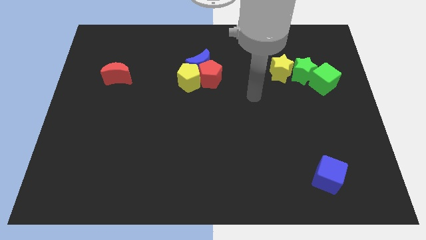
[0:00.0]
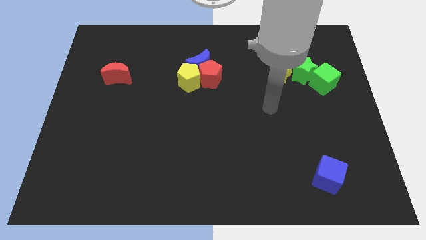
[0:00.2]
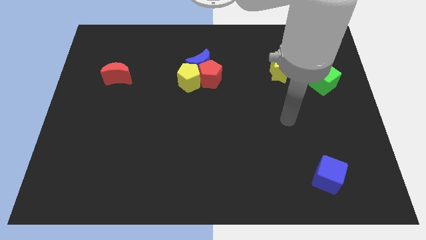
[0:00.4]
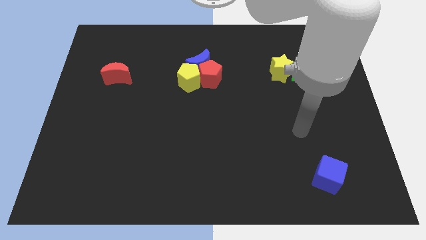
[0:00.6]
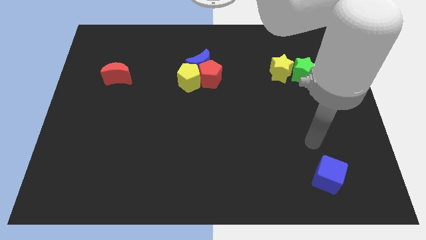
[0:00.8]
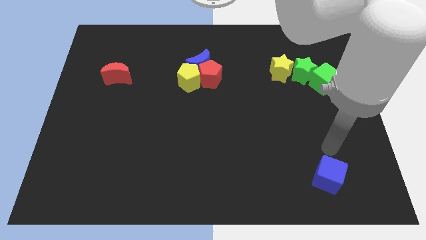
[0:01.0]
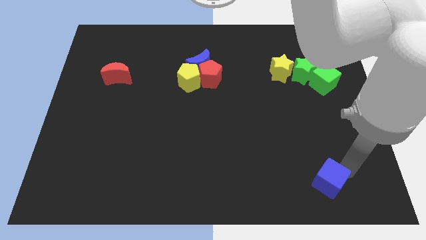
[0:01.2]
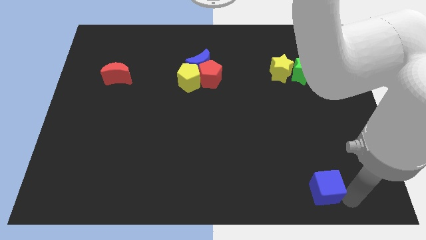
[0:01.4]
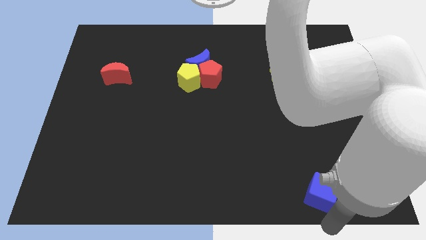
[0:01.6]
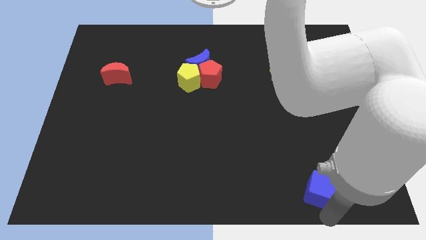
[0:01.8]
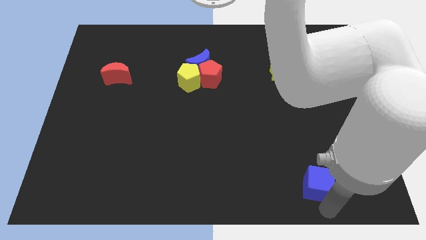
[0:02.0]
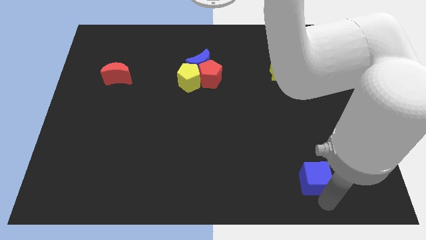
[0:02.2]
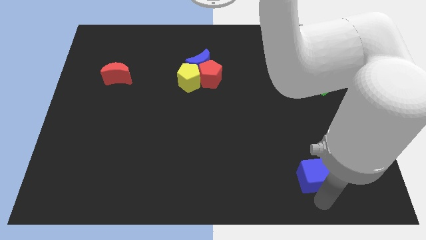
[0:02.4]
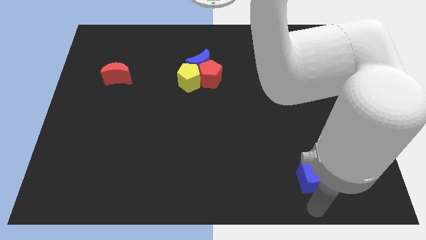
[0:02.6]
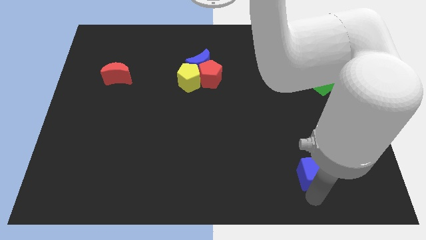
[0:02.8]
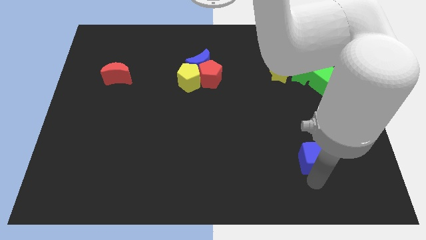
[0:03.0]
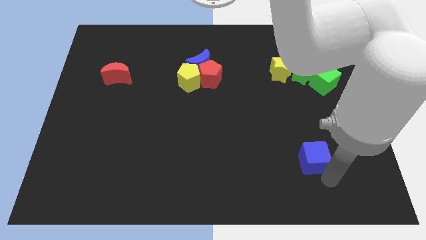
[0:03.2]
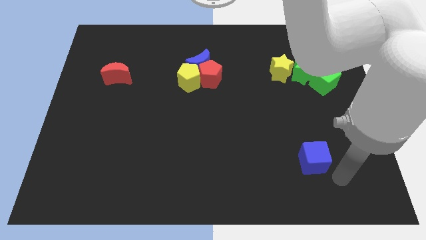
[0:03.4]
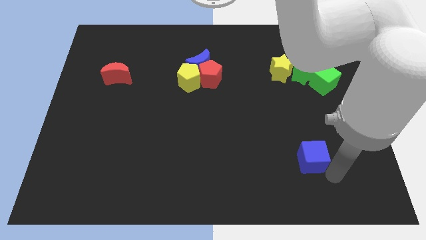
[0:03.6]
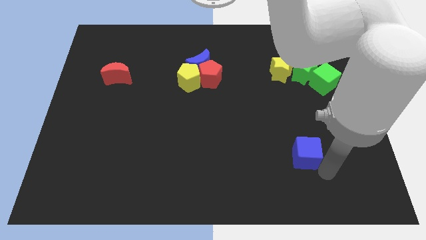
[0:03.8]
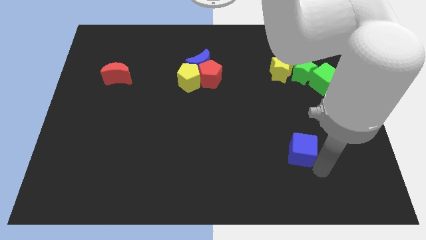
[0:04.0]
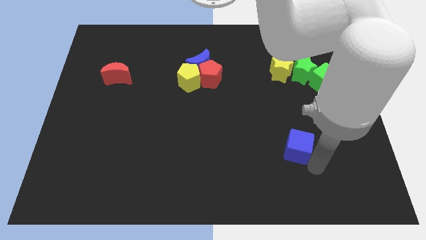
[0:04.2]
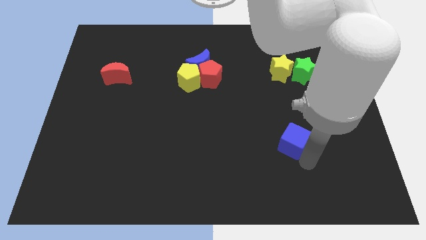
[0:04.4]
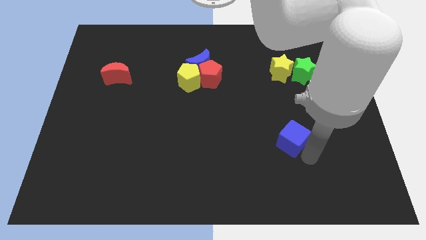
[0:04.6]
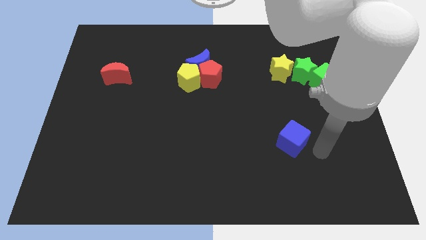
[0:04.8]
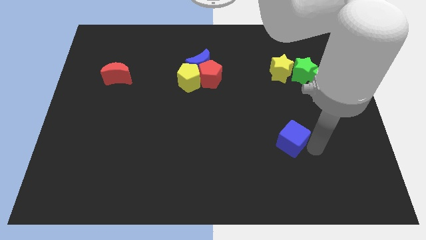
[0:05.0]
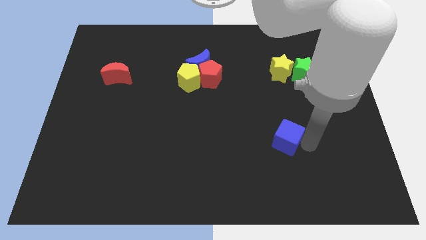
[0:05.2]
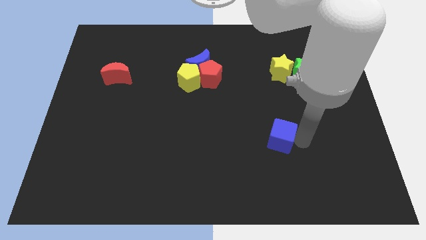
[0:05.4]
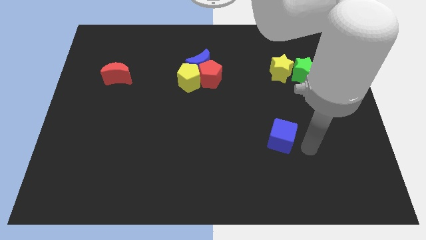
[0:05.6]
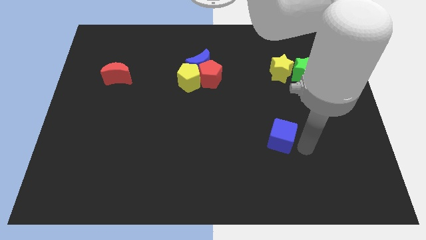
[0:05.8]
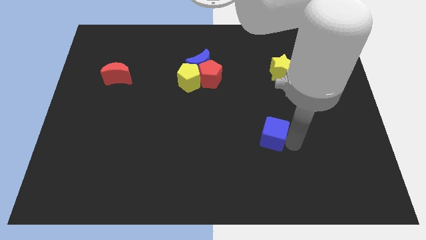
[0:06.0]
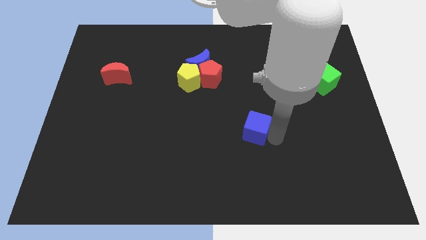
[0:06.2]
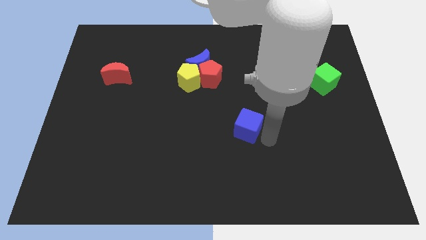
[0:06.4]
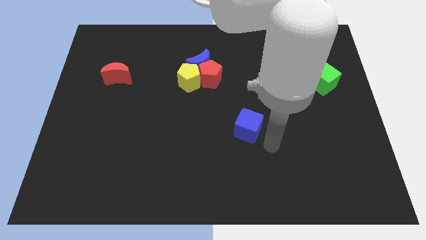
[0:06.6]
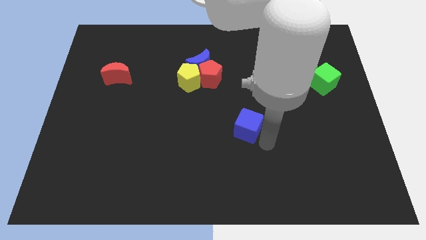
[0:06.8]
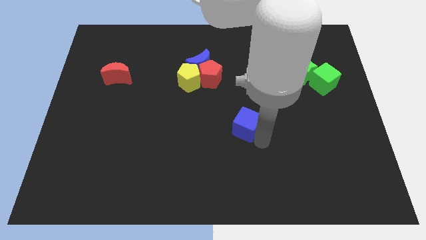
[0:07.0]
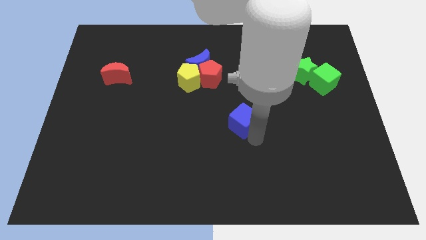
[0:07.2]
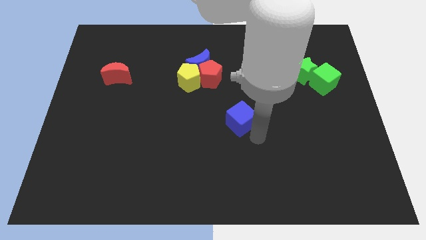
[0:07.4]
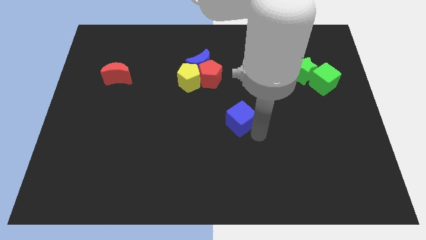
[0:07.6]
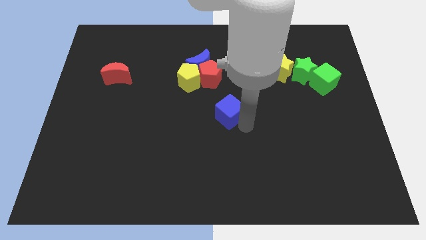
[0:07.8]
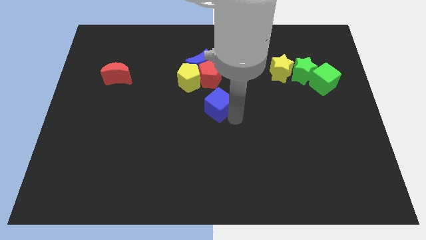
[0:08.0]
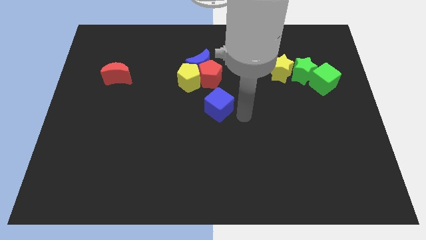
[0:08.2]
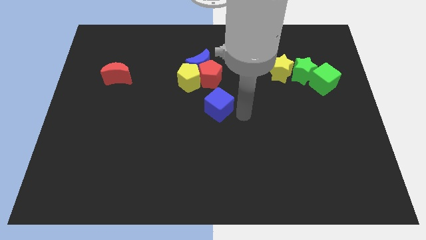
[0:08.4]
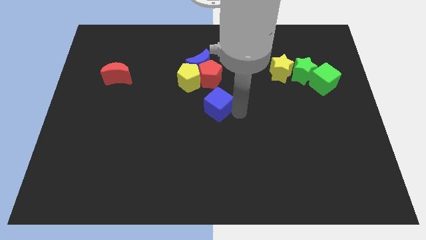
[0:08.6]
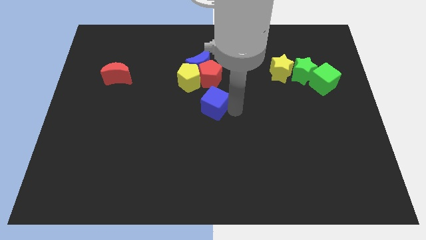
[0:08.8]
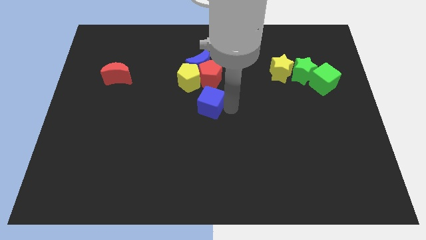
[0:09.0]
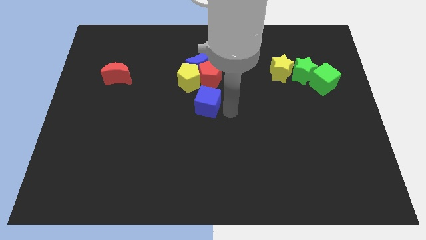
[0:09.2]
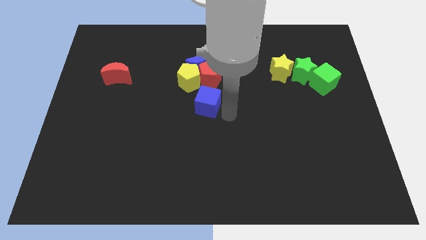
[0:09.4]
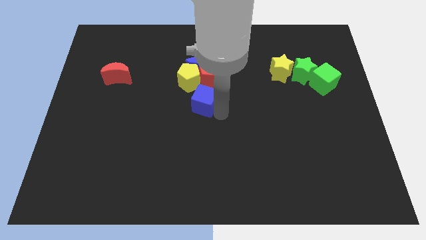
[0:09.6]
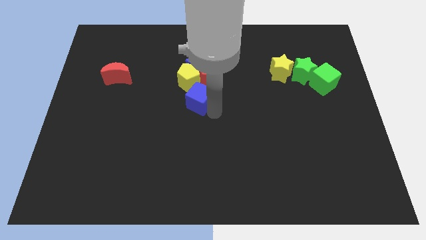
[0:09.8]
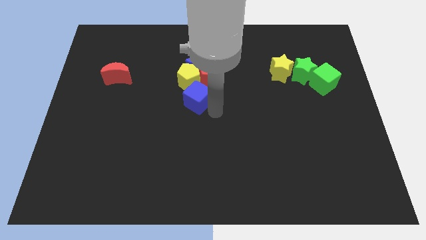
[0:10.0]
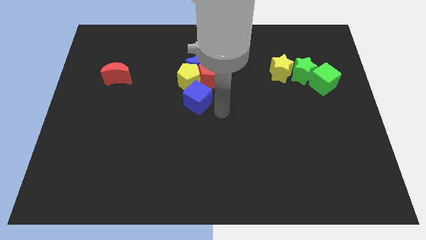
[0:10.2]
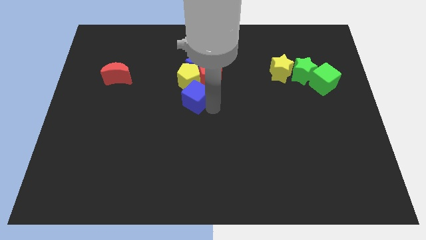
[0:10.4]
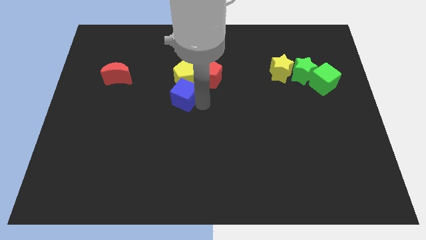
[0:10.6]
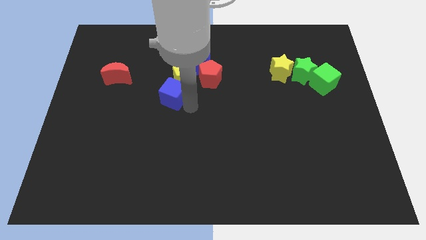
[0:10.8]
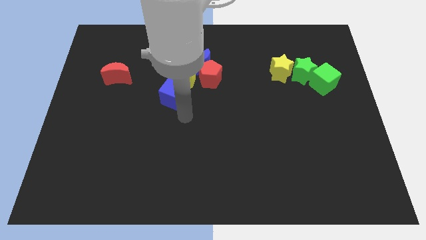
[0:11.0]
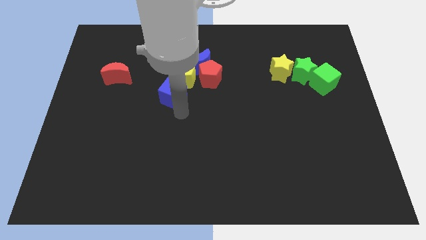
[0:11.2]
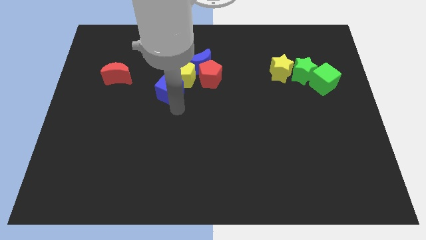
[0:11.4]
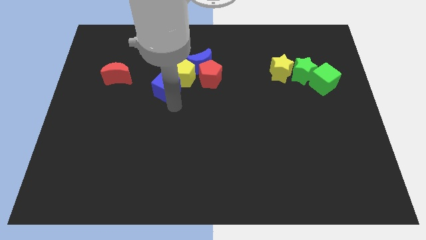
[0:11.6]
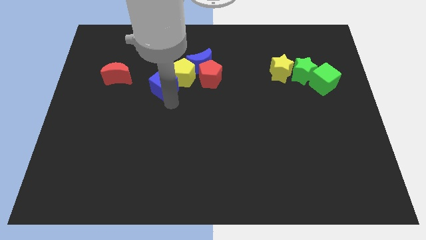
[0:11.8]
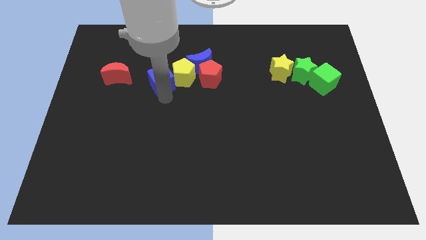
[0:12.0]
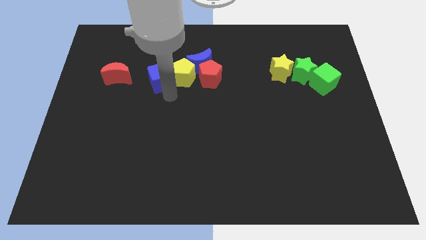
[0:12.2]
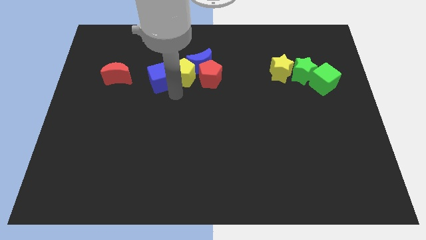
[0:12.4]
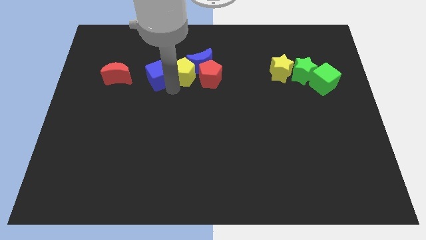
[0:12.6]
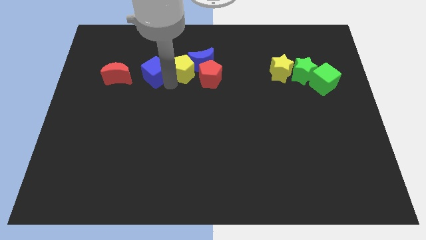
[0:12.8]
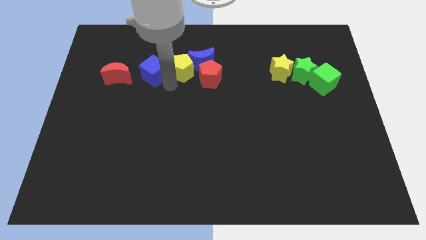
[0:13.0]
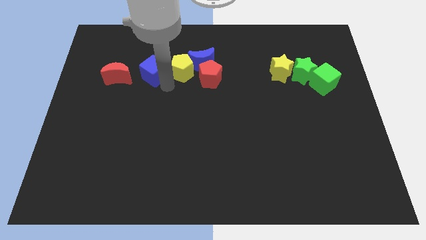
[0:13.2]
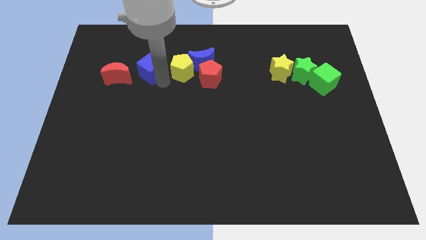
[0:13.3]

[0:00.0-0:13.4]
slide the blue cube to the top right of the red moon
